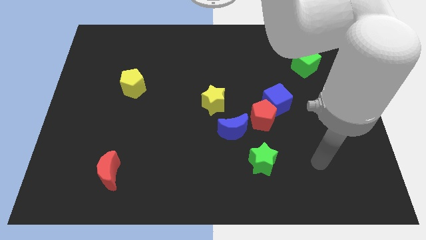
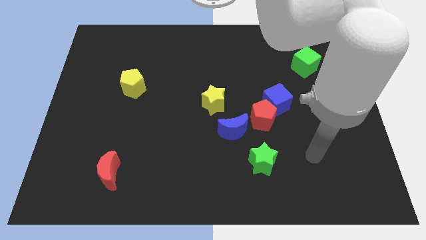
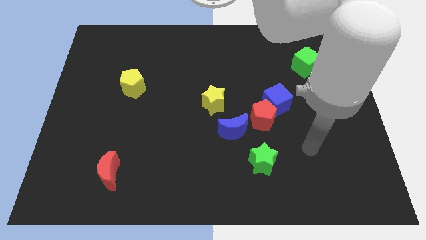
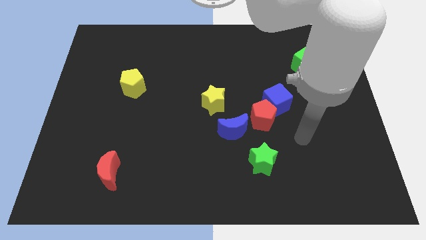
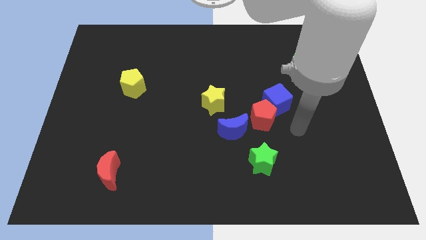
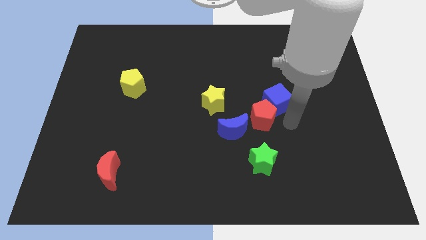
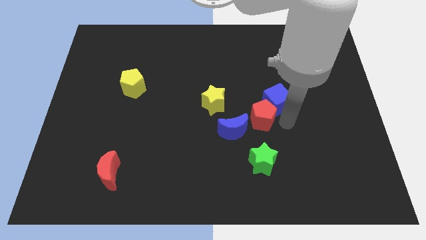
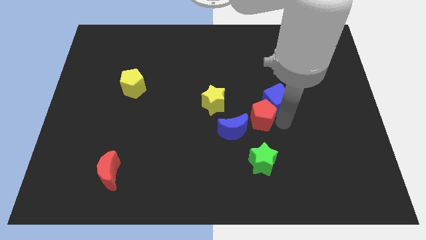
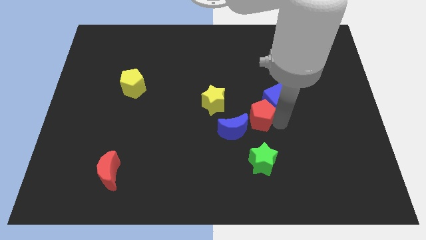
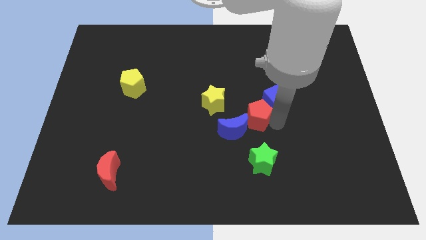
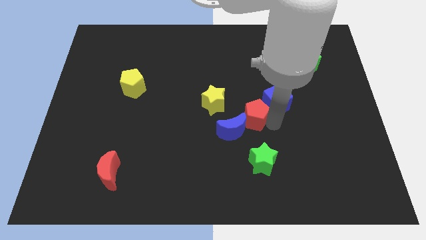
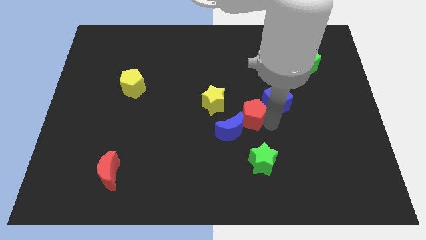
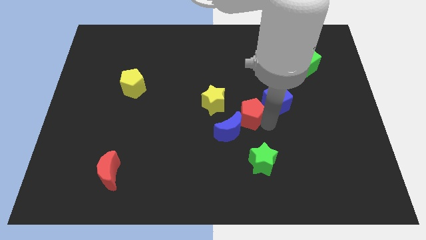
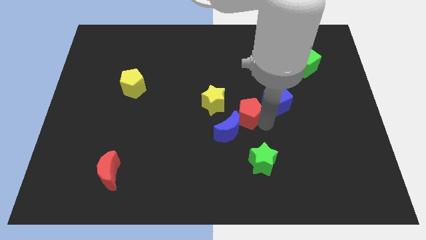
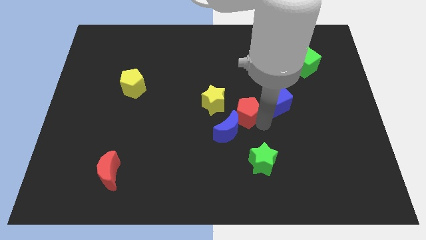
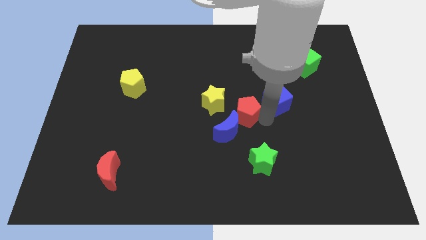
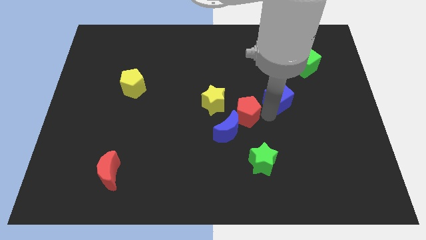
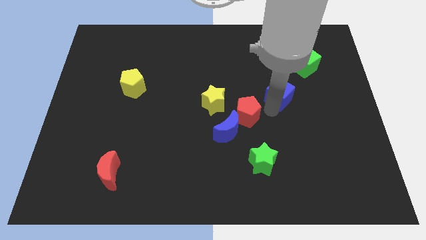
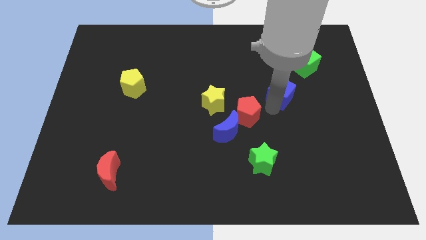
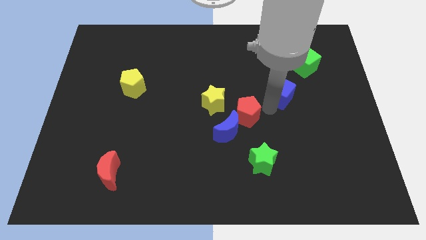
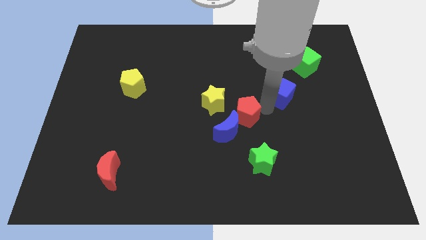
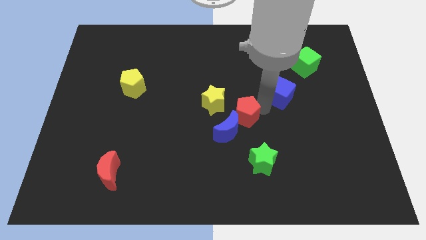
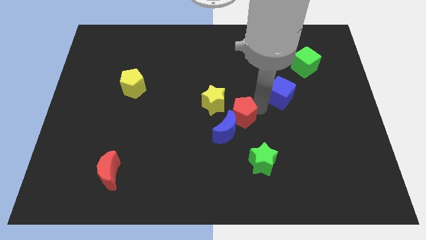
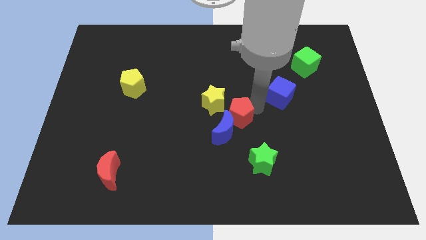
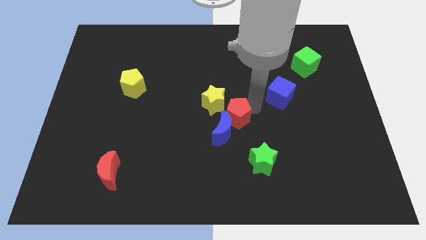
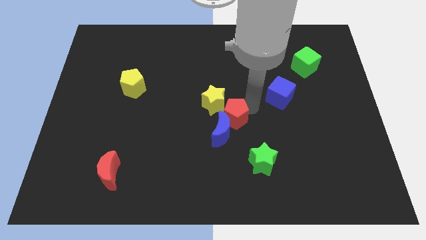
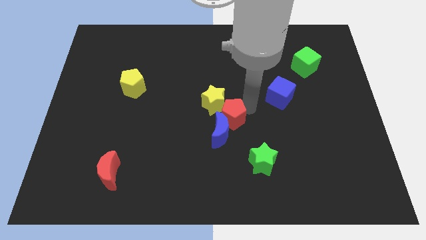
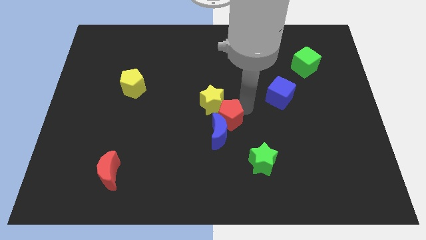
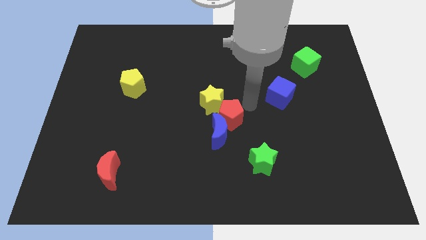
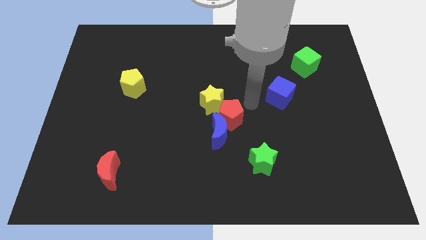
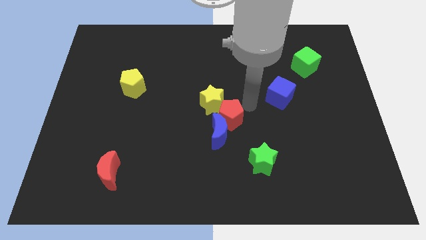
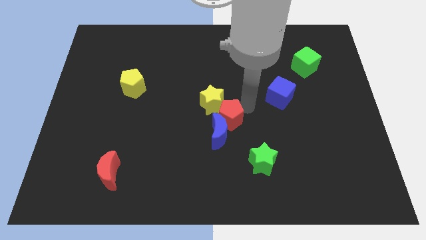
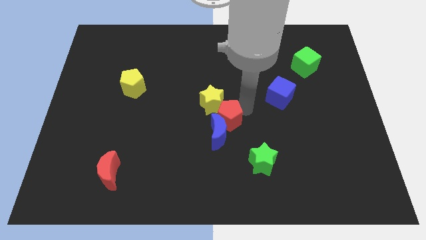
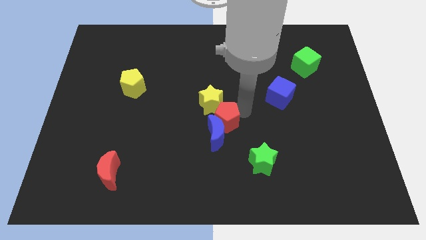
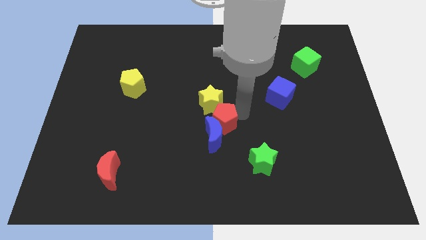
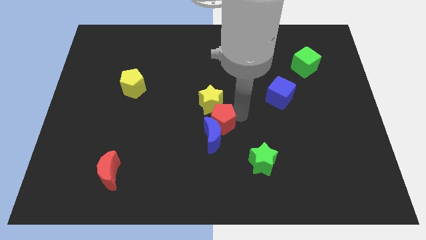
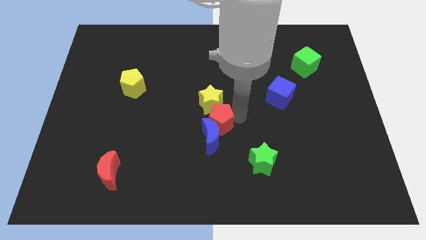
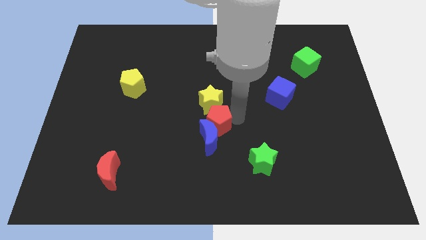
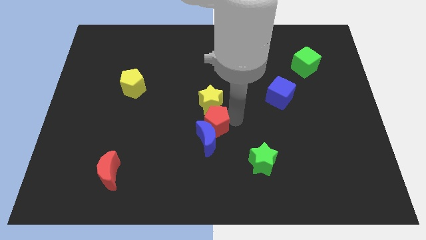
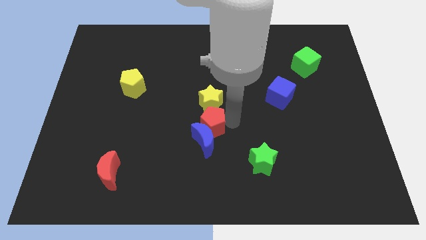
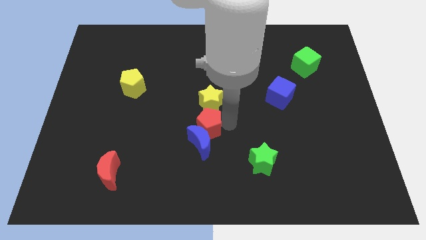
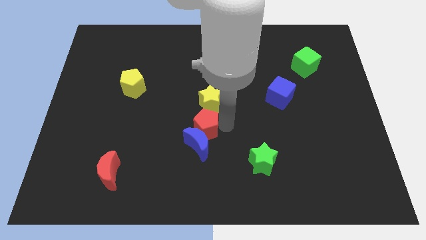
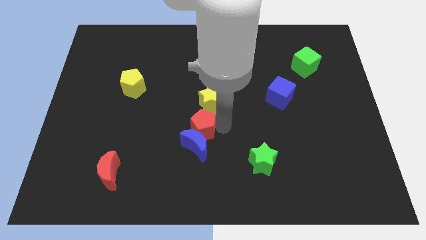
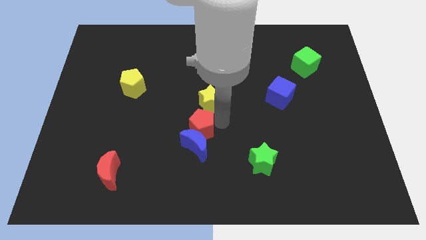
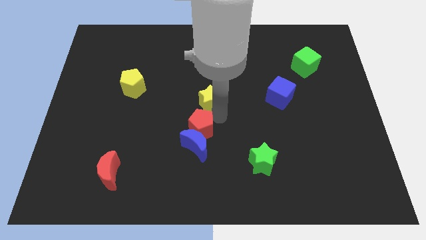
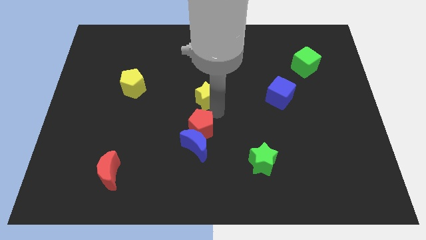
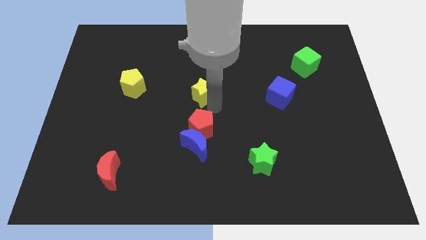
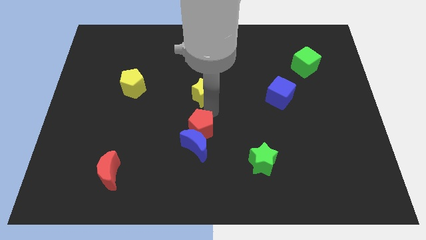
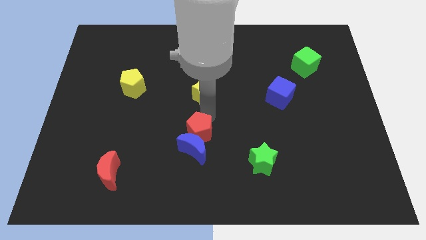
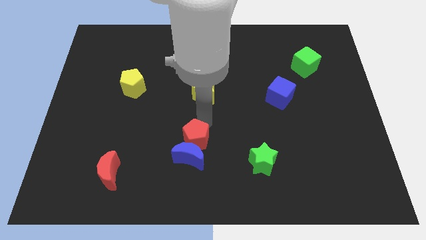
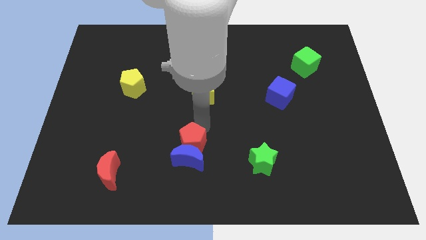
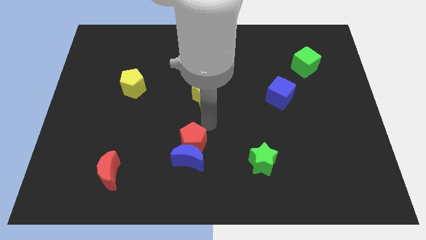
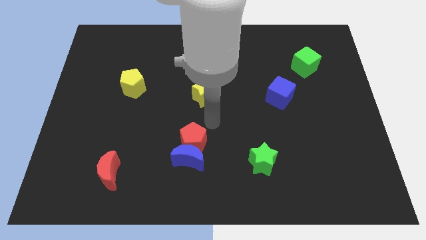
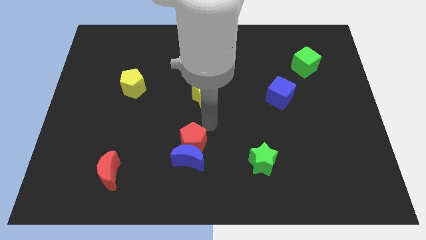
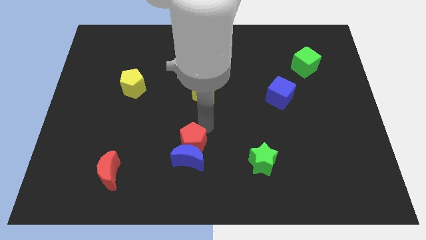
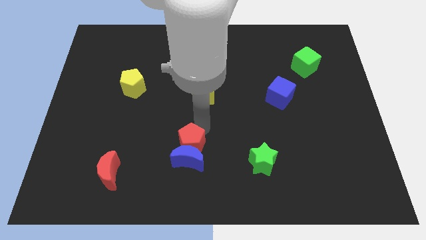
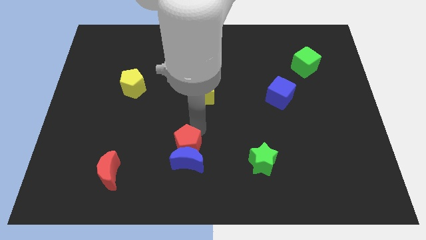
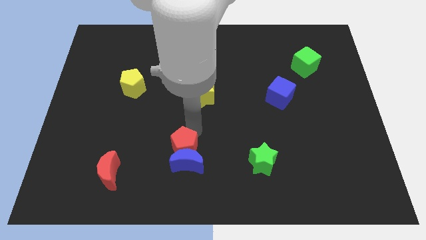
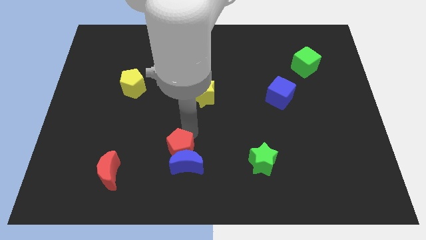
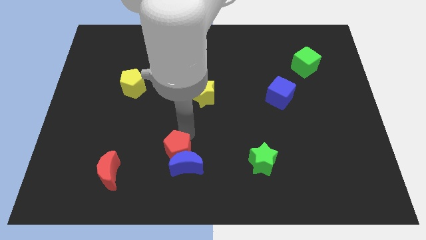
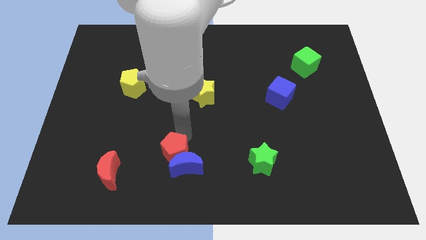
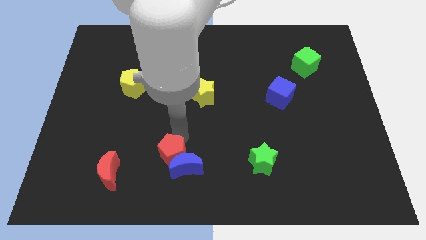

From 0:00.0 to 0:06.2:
push the red pentagon right of the red moon

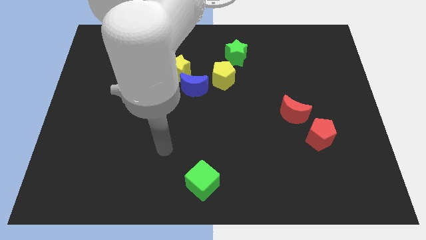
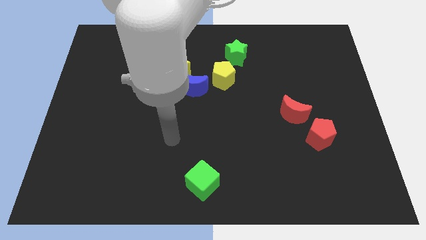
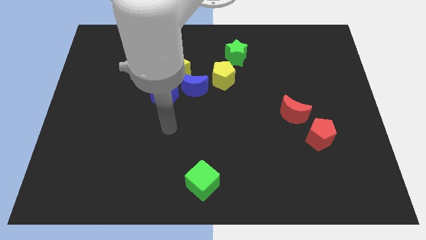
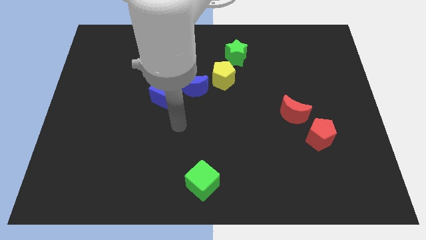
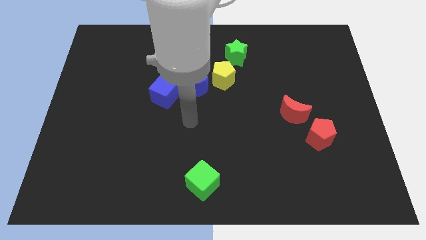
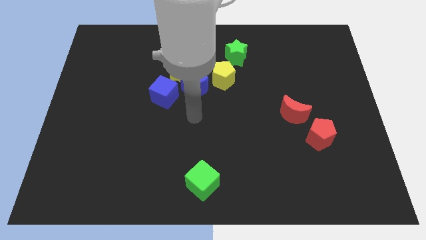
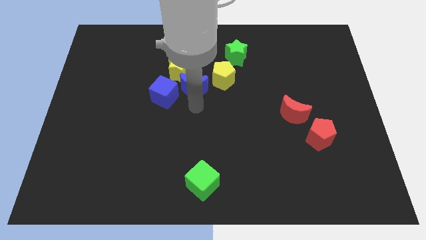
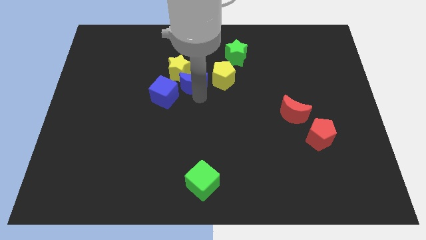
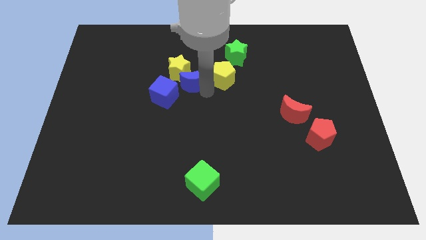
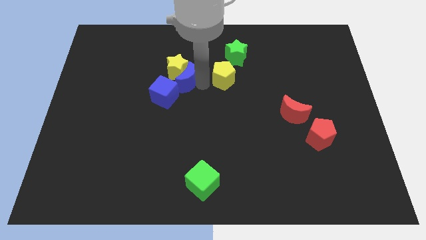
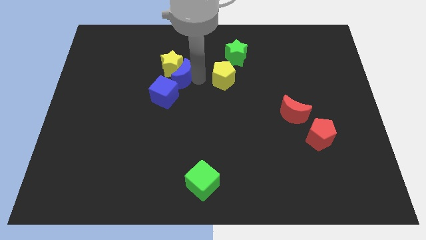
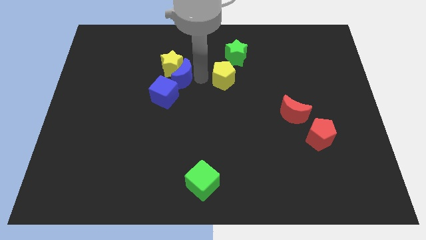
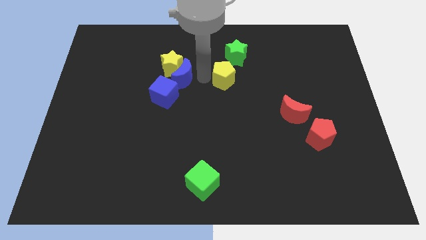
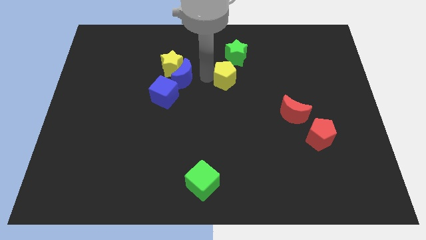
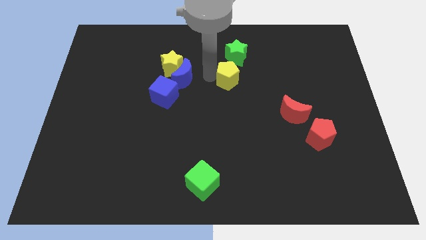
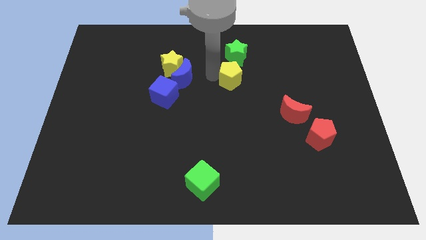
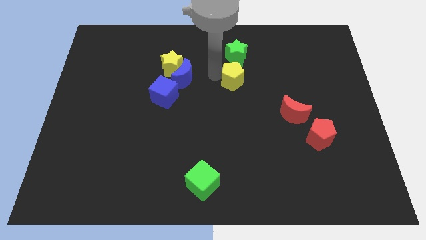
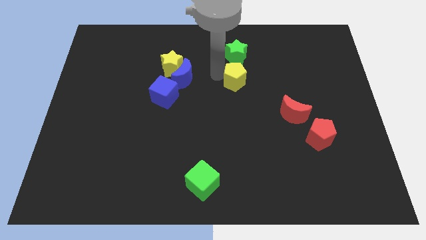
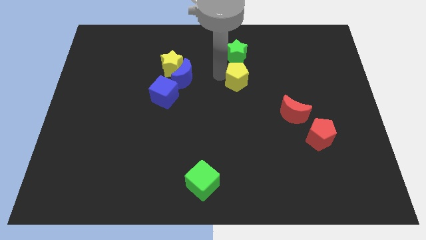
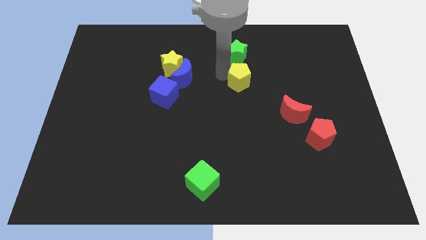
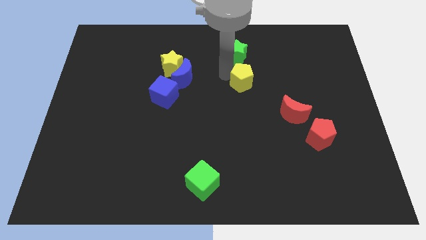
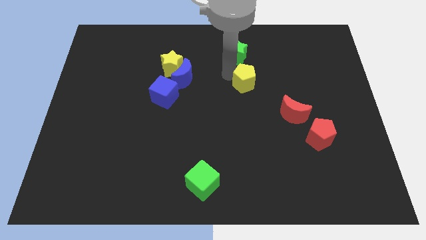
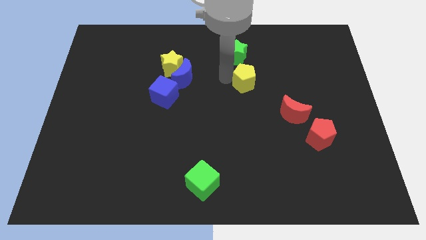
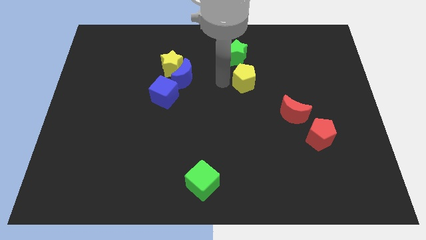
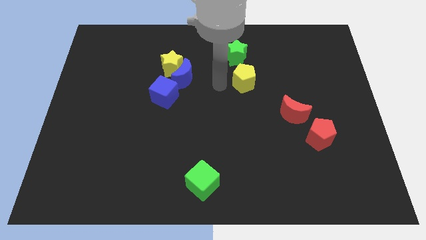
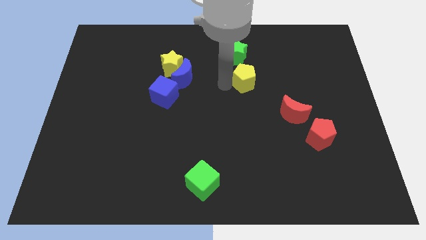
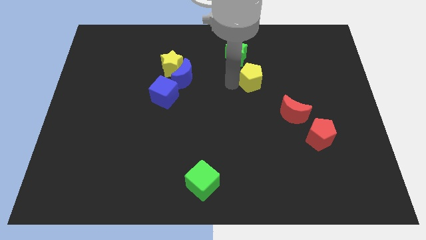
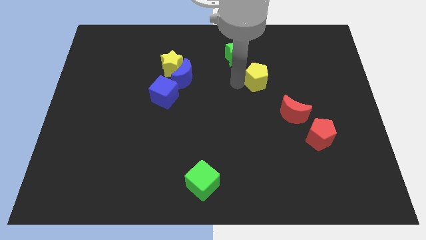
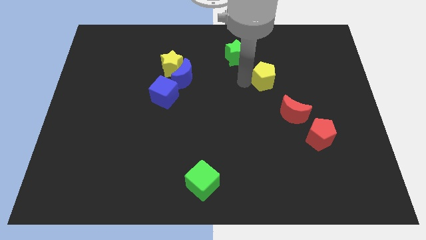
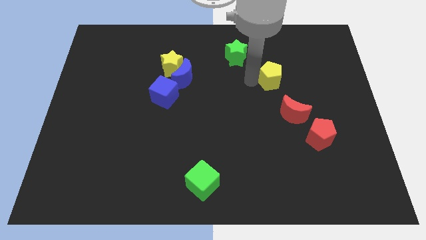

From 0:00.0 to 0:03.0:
slide the yellow pentagon to the top side of the red moon
